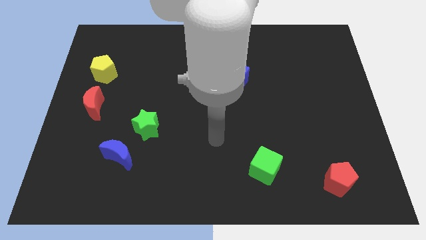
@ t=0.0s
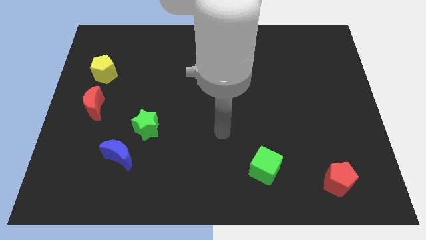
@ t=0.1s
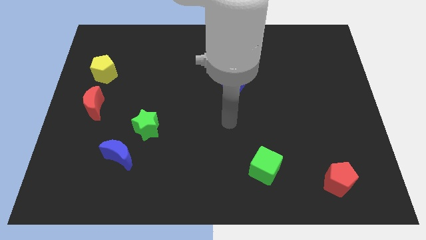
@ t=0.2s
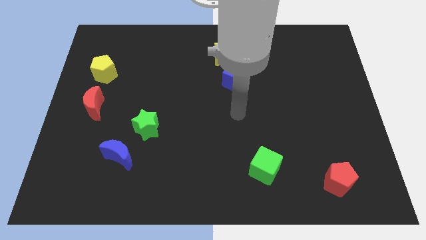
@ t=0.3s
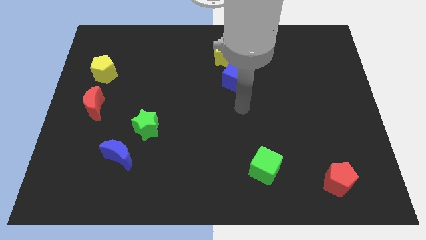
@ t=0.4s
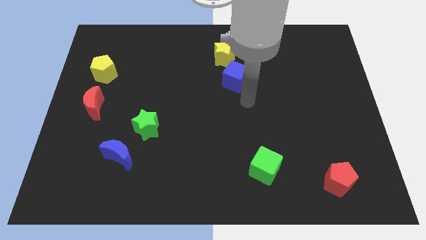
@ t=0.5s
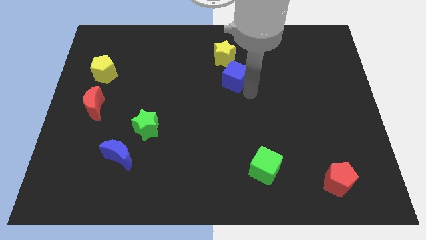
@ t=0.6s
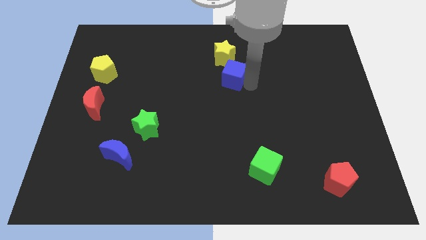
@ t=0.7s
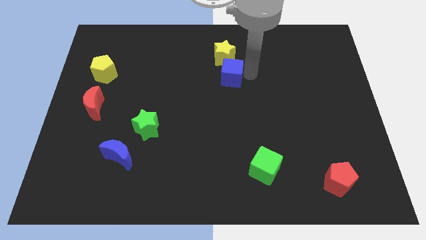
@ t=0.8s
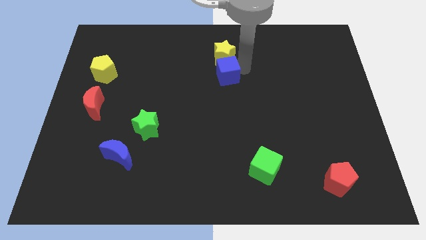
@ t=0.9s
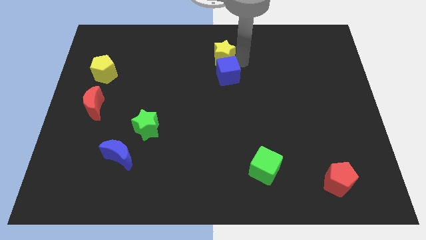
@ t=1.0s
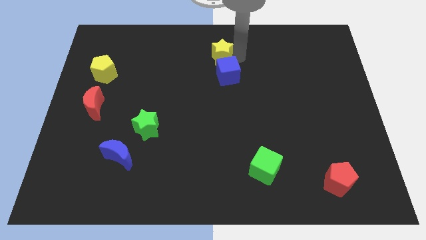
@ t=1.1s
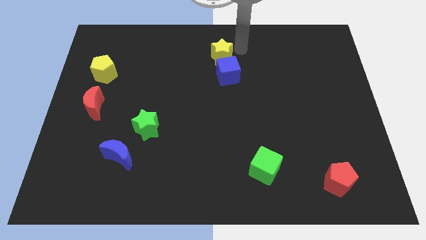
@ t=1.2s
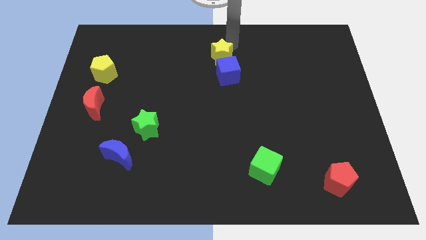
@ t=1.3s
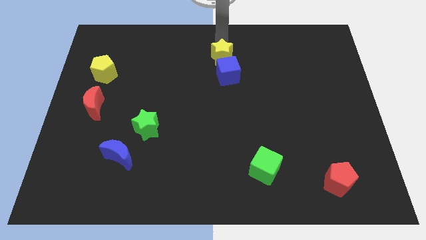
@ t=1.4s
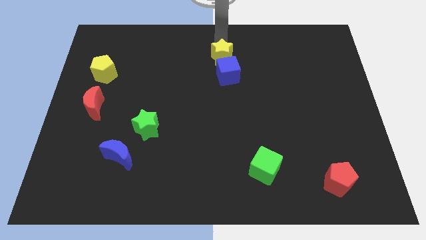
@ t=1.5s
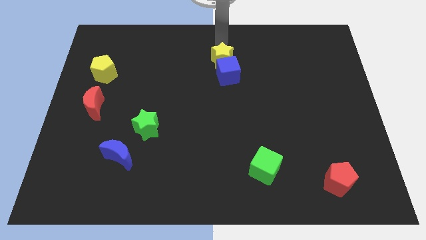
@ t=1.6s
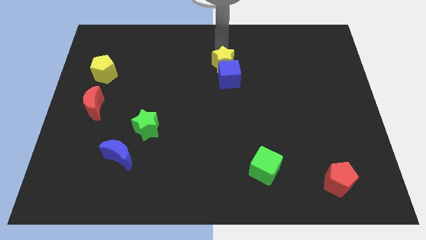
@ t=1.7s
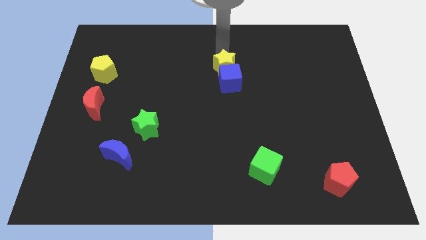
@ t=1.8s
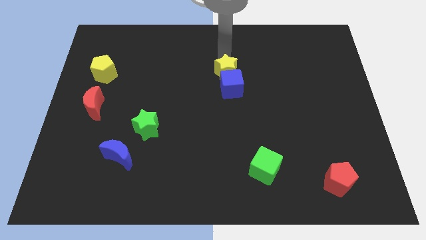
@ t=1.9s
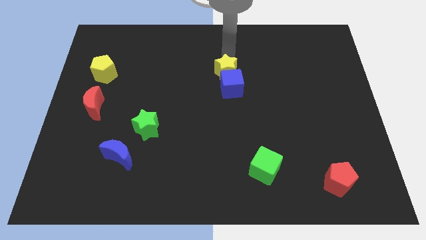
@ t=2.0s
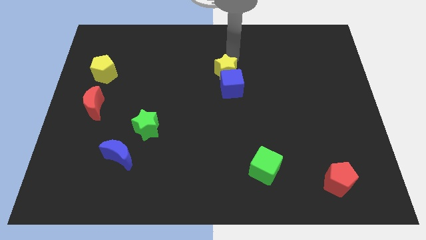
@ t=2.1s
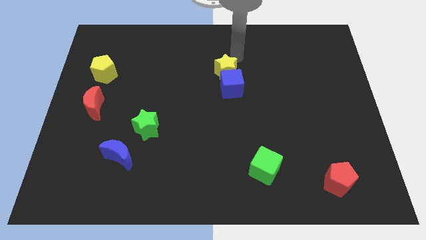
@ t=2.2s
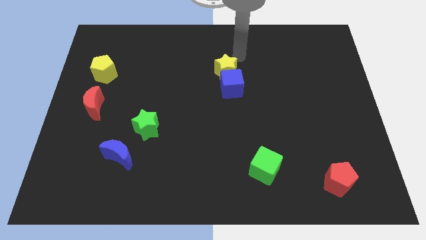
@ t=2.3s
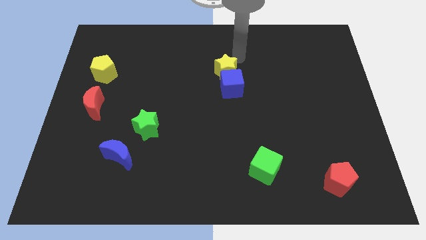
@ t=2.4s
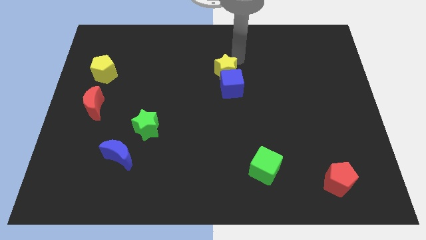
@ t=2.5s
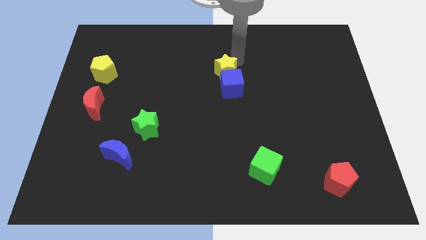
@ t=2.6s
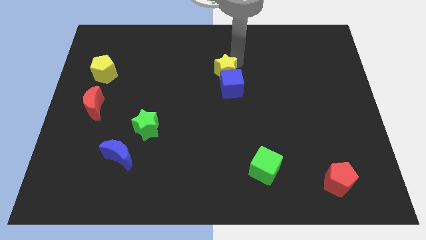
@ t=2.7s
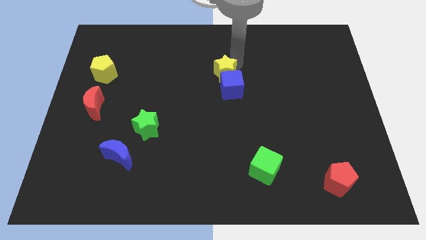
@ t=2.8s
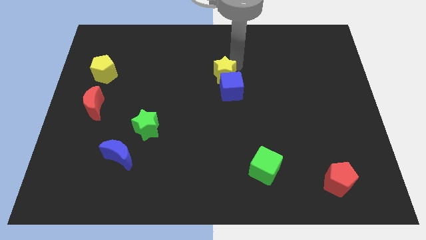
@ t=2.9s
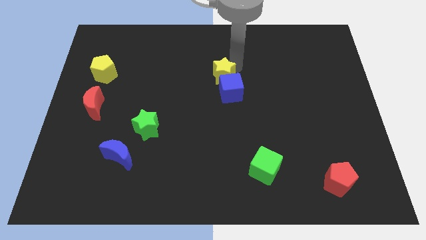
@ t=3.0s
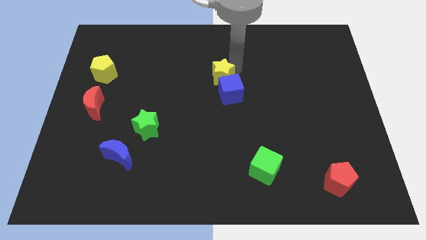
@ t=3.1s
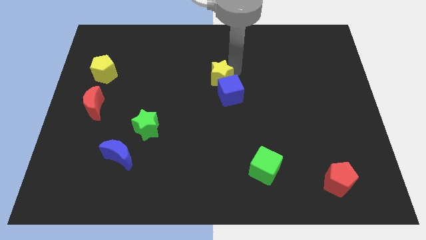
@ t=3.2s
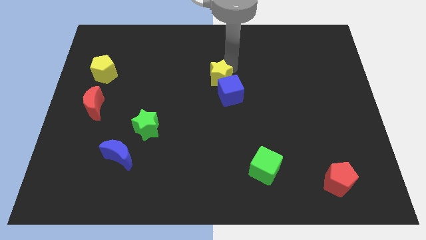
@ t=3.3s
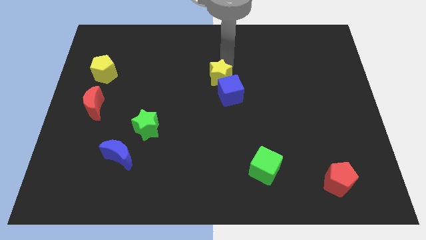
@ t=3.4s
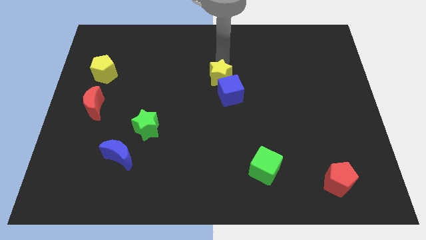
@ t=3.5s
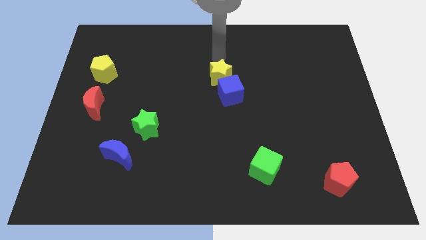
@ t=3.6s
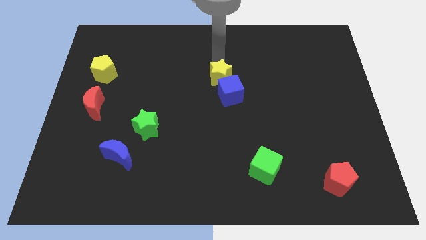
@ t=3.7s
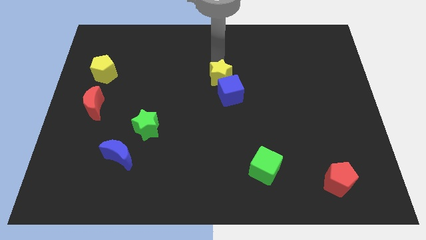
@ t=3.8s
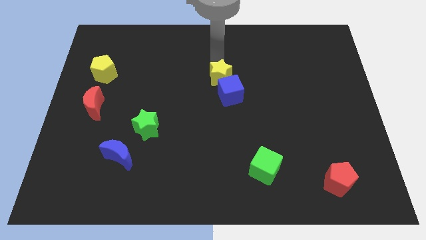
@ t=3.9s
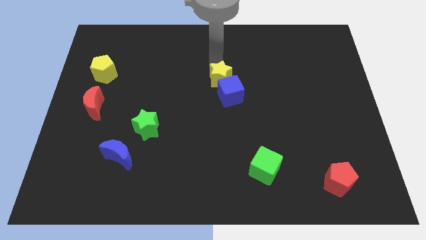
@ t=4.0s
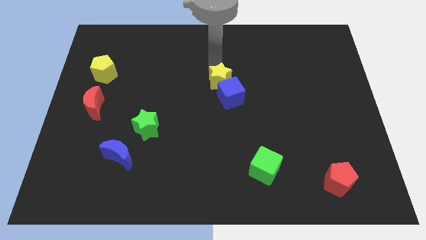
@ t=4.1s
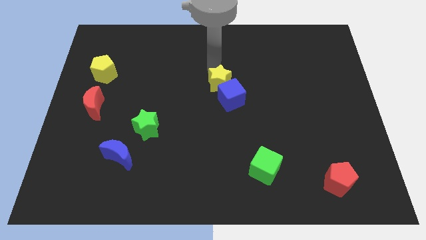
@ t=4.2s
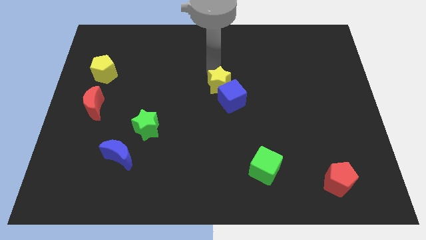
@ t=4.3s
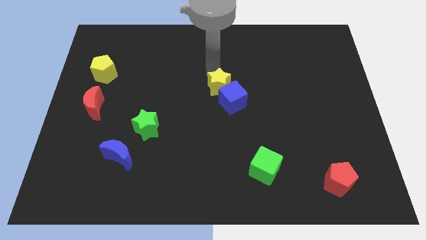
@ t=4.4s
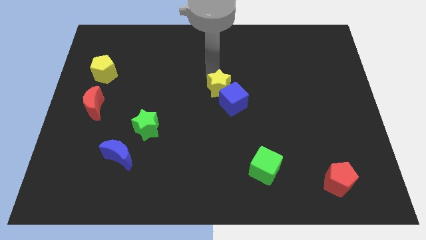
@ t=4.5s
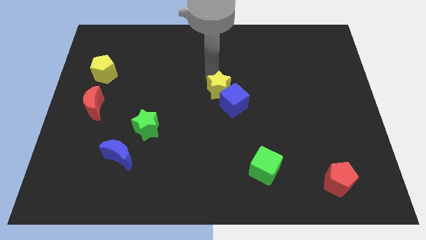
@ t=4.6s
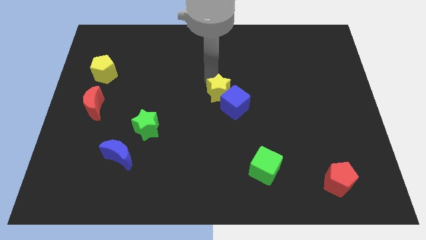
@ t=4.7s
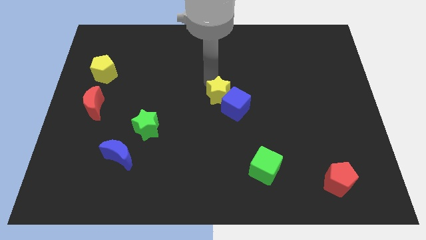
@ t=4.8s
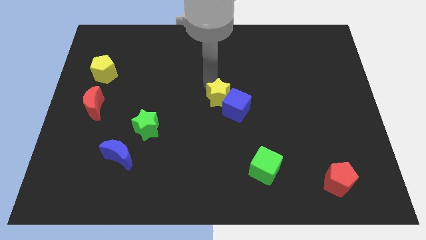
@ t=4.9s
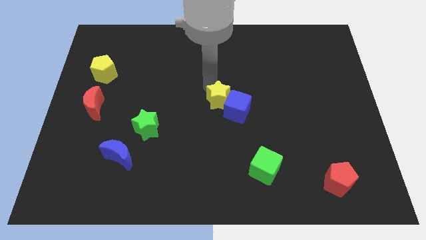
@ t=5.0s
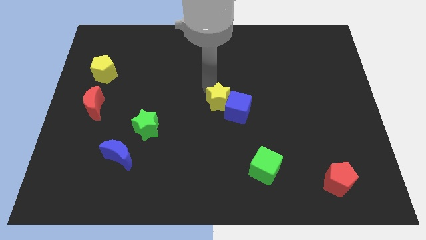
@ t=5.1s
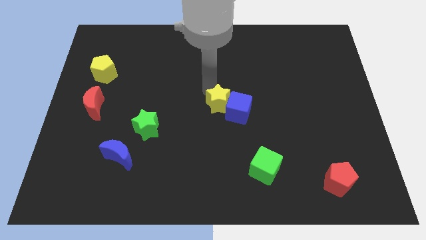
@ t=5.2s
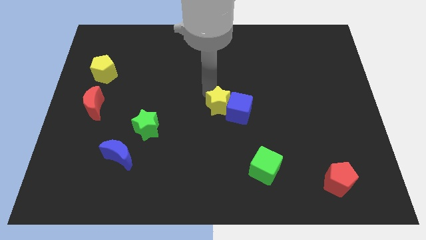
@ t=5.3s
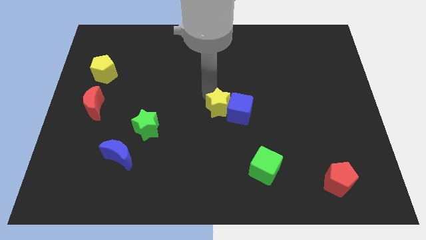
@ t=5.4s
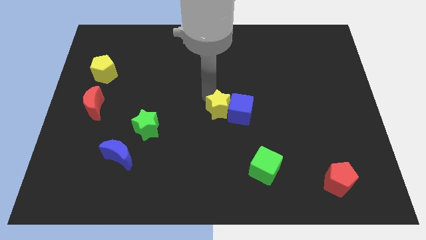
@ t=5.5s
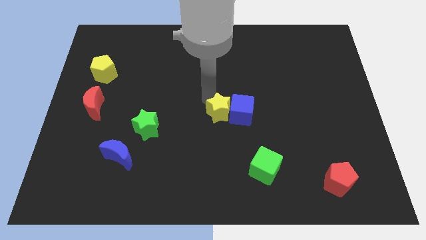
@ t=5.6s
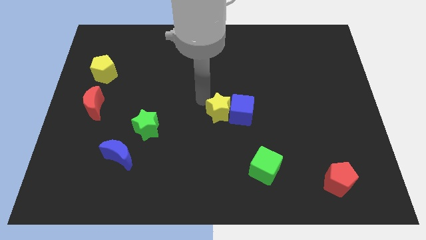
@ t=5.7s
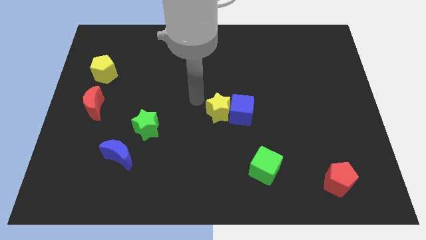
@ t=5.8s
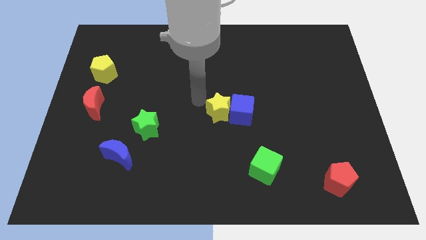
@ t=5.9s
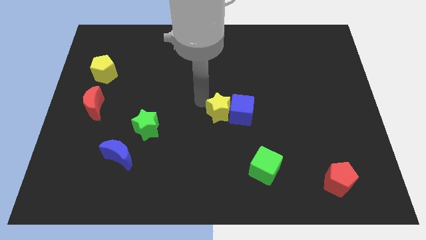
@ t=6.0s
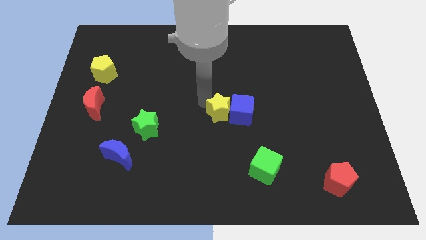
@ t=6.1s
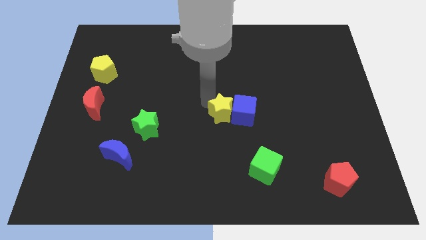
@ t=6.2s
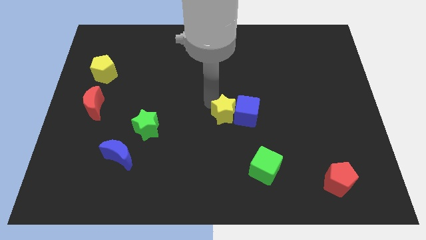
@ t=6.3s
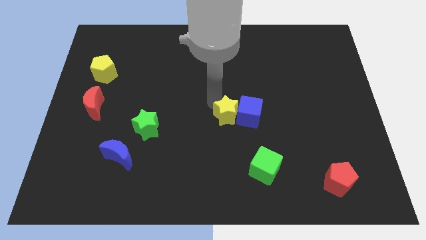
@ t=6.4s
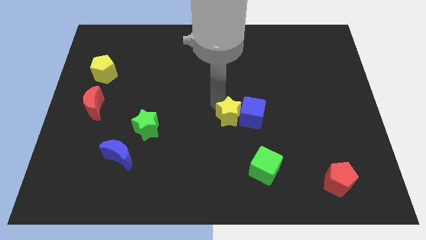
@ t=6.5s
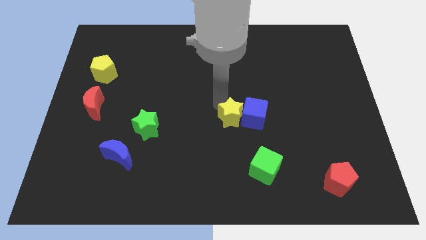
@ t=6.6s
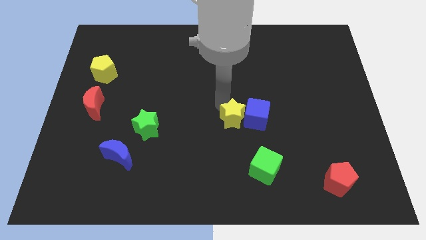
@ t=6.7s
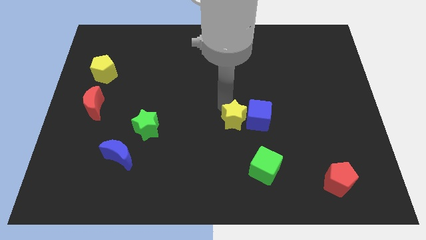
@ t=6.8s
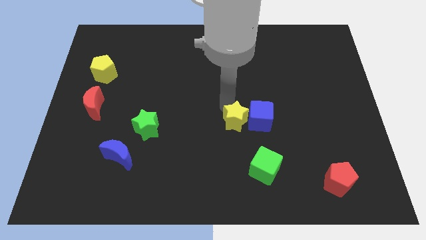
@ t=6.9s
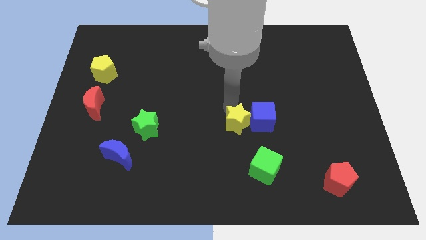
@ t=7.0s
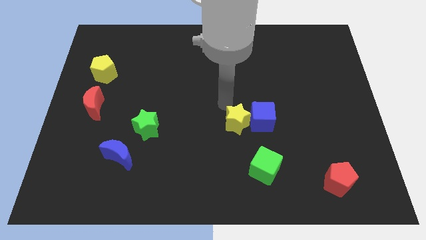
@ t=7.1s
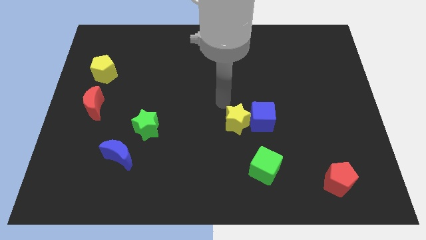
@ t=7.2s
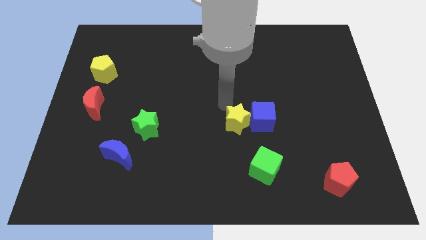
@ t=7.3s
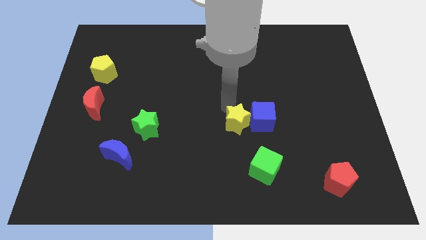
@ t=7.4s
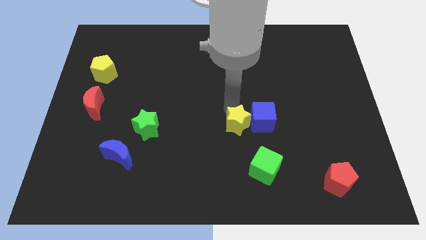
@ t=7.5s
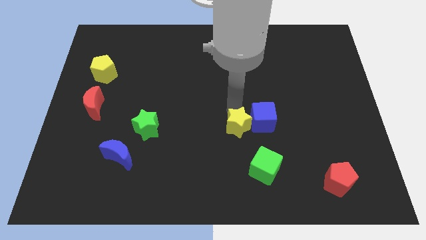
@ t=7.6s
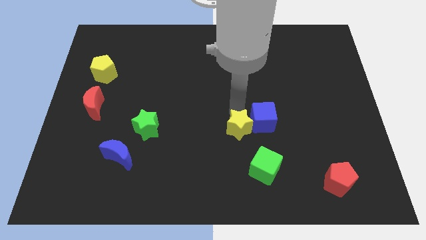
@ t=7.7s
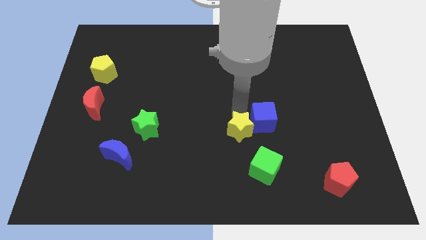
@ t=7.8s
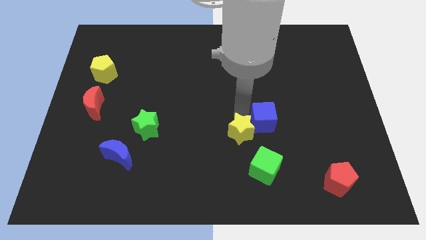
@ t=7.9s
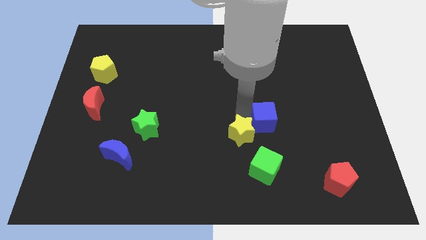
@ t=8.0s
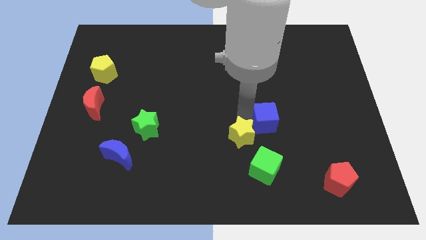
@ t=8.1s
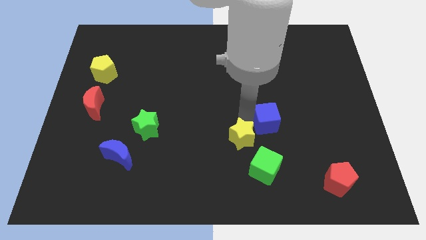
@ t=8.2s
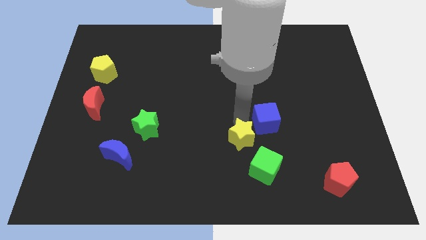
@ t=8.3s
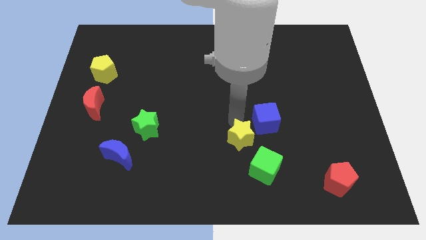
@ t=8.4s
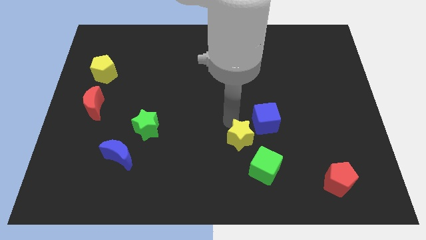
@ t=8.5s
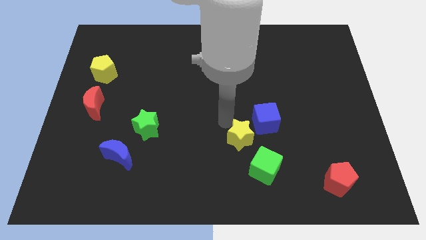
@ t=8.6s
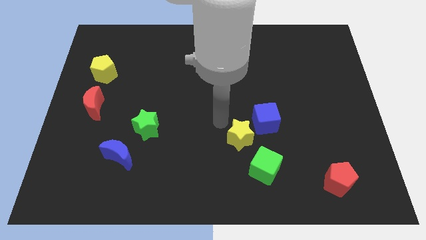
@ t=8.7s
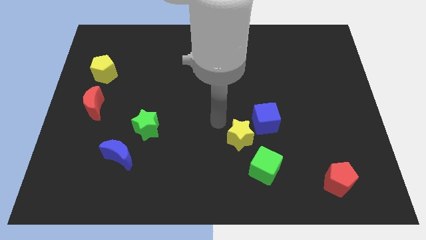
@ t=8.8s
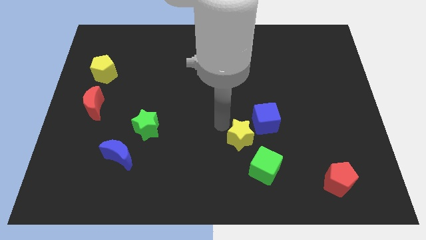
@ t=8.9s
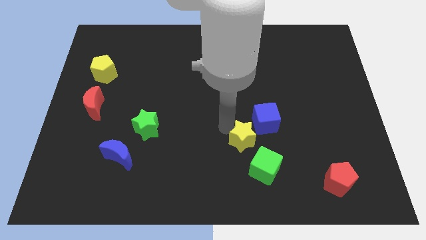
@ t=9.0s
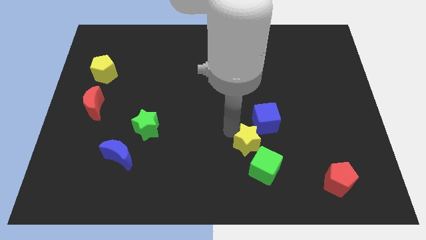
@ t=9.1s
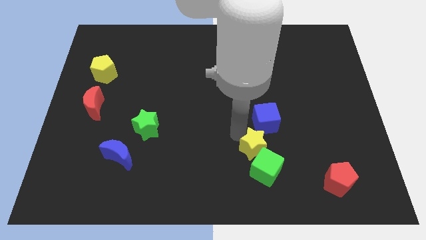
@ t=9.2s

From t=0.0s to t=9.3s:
push the yellow star close to the green cube
